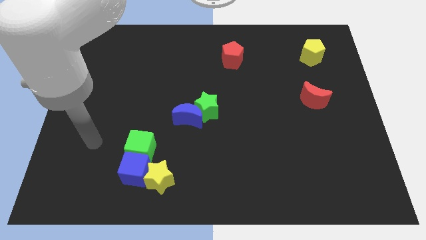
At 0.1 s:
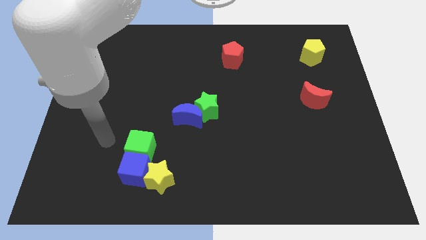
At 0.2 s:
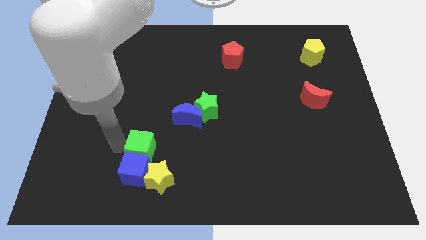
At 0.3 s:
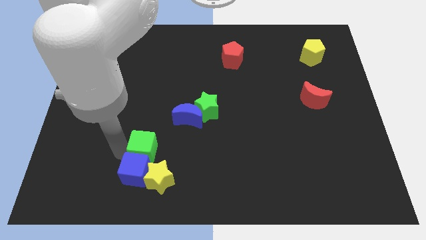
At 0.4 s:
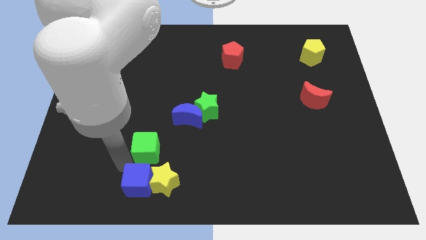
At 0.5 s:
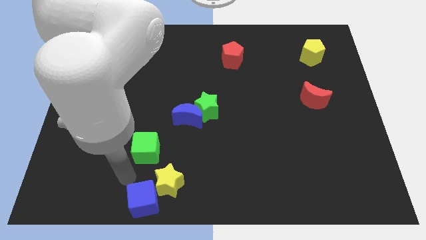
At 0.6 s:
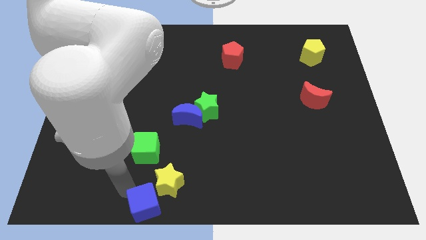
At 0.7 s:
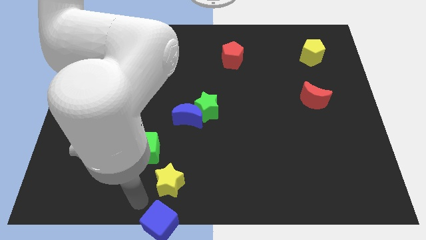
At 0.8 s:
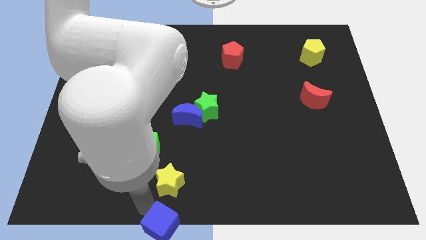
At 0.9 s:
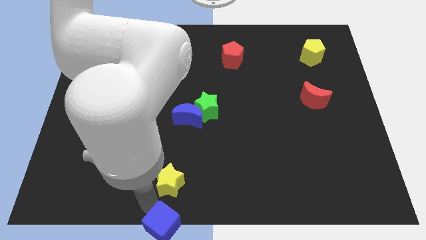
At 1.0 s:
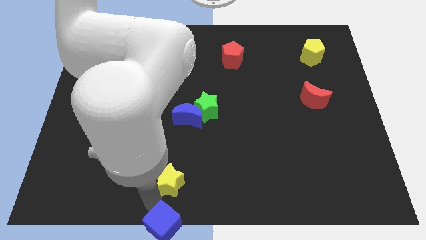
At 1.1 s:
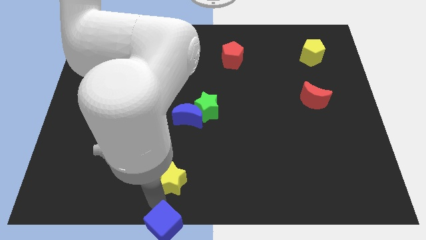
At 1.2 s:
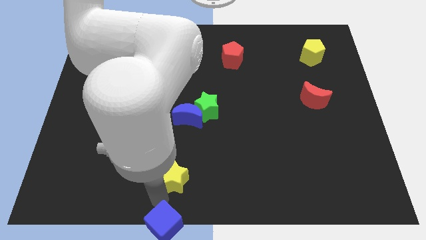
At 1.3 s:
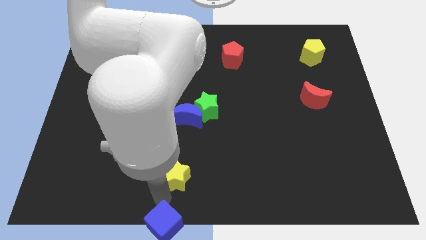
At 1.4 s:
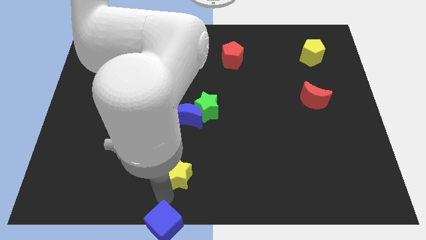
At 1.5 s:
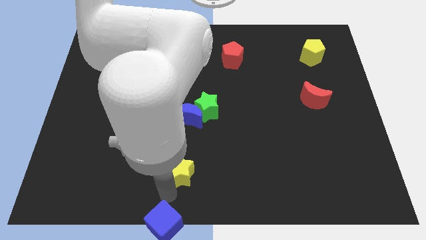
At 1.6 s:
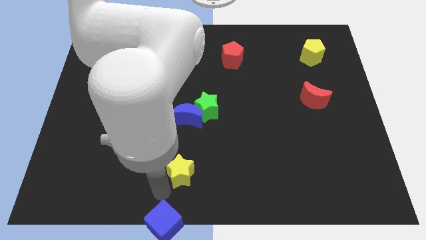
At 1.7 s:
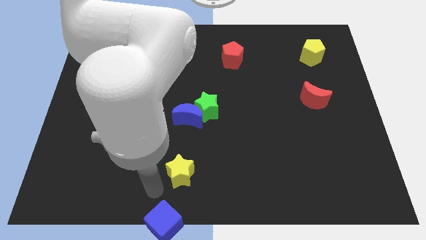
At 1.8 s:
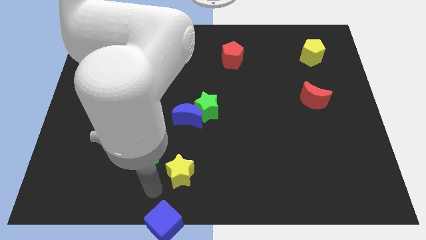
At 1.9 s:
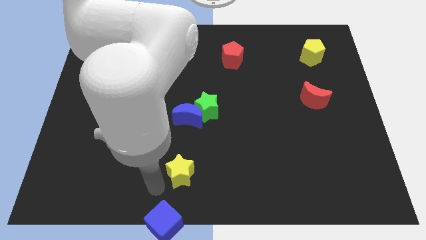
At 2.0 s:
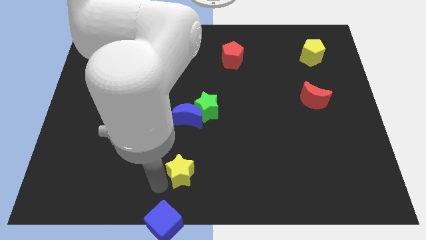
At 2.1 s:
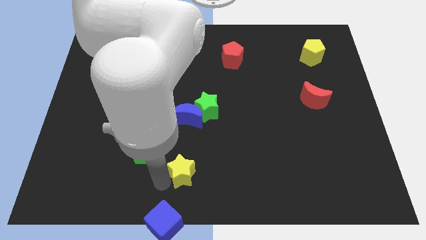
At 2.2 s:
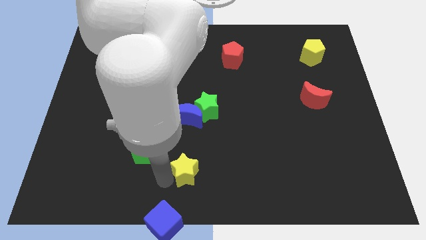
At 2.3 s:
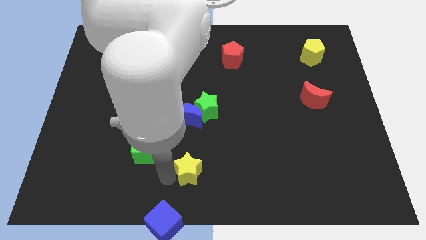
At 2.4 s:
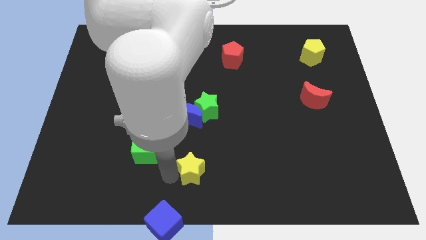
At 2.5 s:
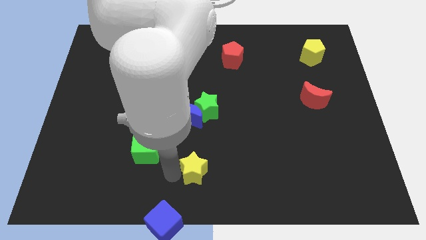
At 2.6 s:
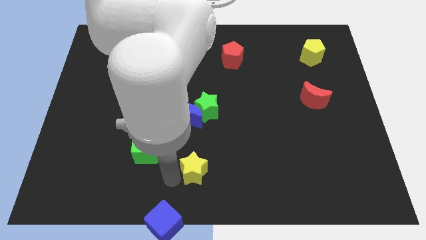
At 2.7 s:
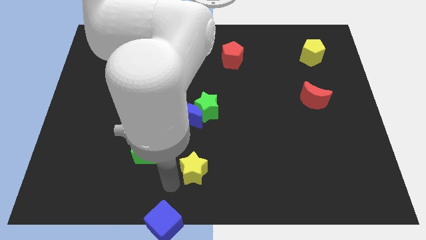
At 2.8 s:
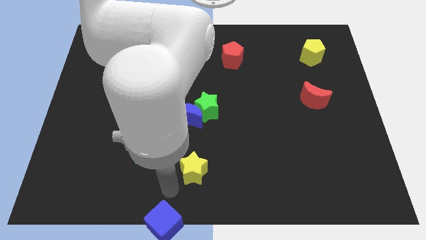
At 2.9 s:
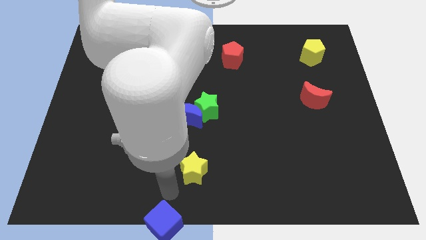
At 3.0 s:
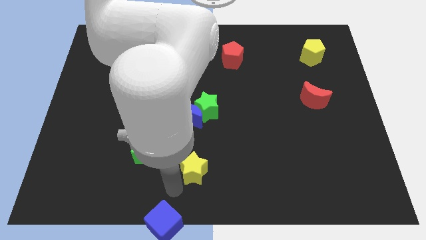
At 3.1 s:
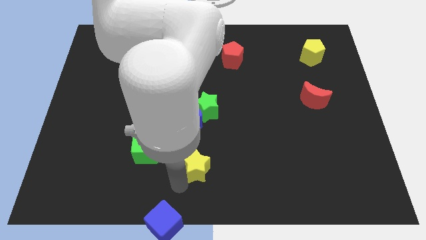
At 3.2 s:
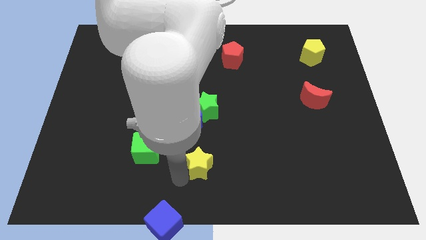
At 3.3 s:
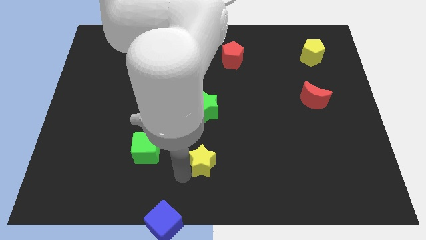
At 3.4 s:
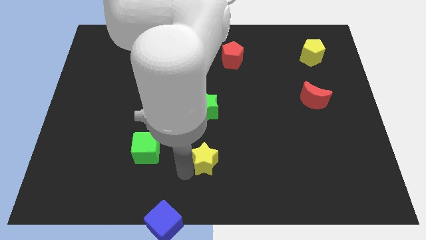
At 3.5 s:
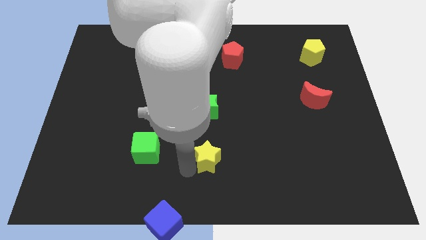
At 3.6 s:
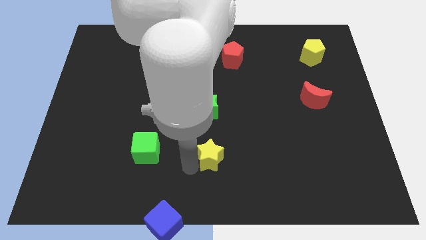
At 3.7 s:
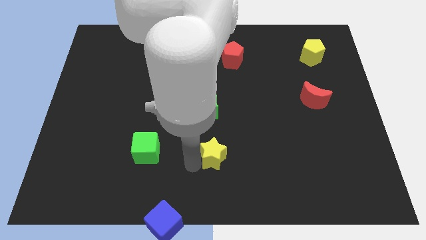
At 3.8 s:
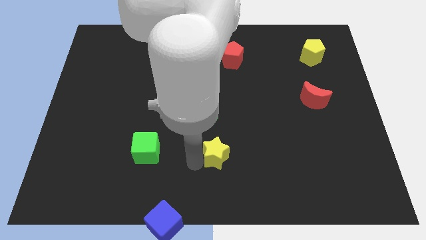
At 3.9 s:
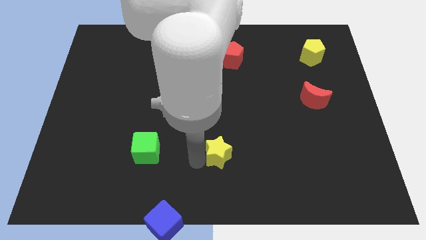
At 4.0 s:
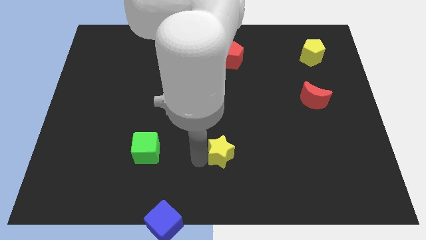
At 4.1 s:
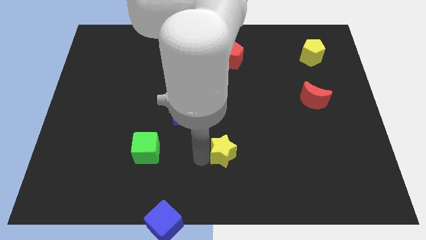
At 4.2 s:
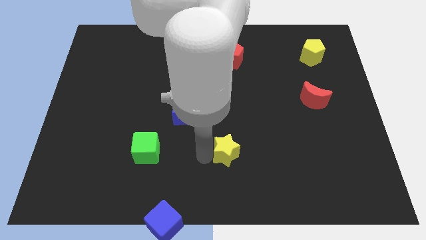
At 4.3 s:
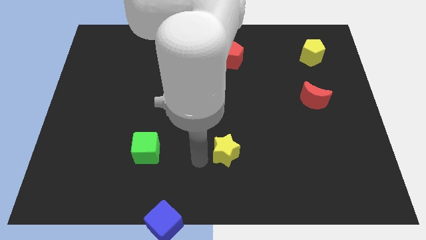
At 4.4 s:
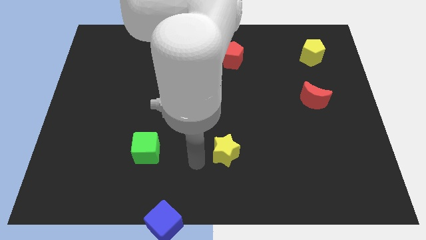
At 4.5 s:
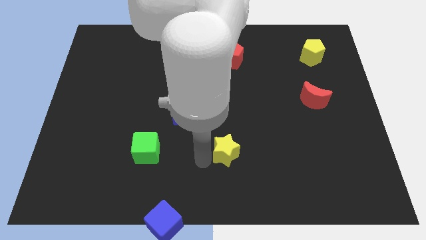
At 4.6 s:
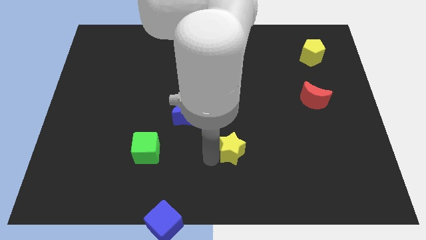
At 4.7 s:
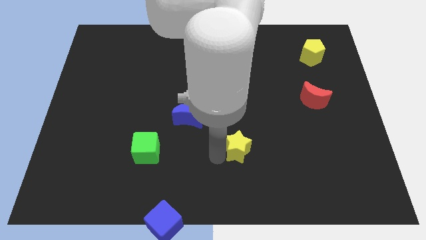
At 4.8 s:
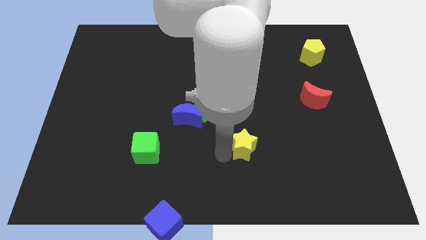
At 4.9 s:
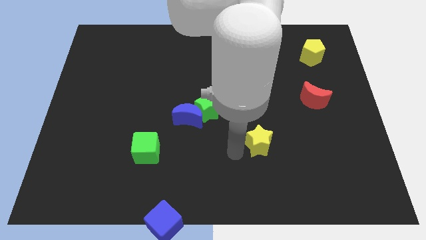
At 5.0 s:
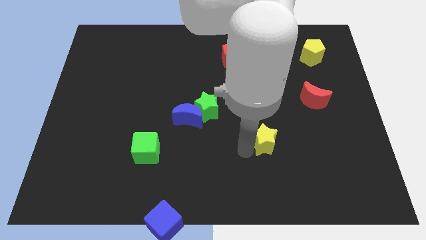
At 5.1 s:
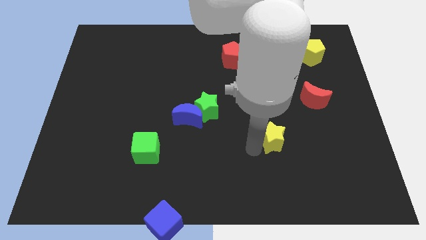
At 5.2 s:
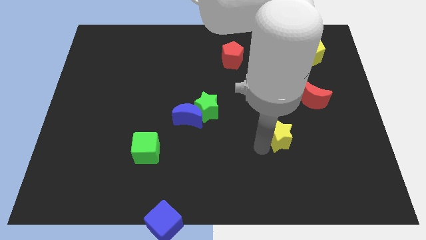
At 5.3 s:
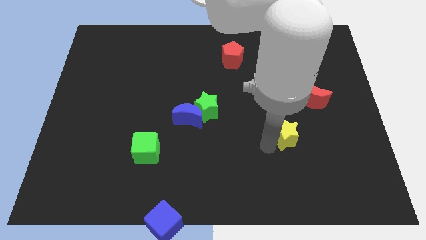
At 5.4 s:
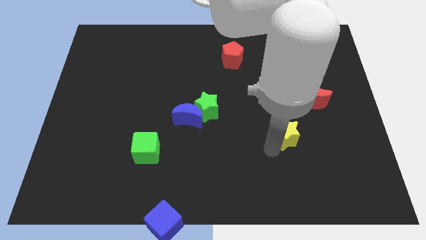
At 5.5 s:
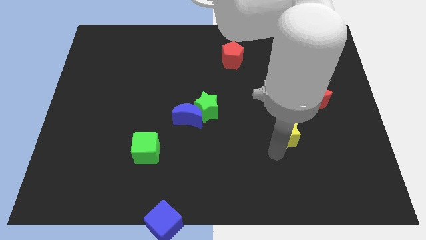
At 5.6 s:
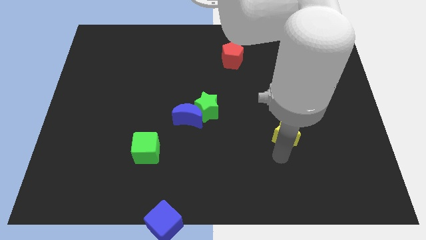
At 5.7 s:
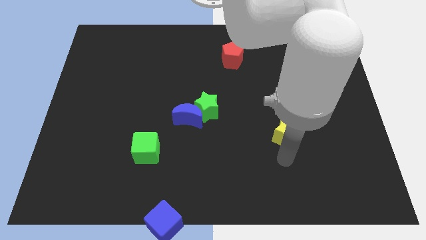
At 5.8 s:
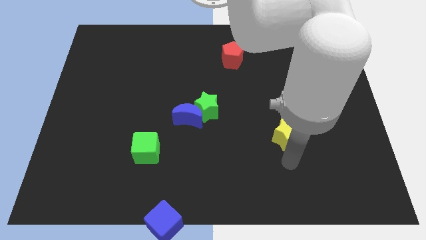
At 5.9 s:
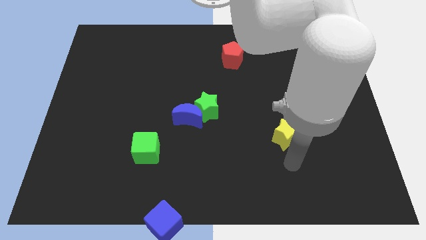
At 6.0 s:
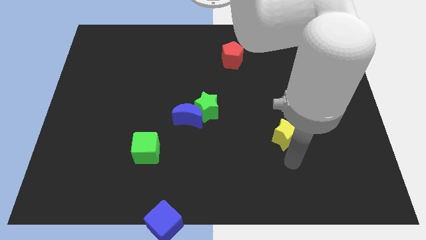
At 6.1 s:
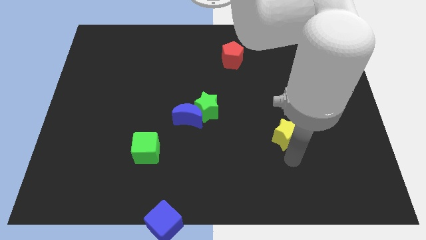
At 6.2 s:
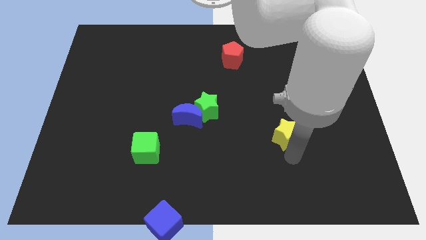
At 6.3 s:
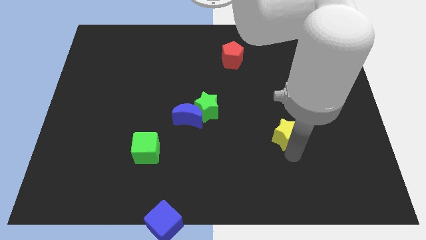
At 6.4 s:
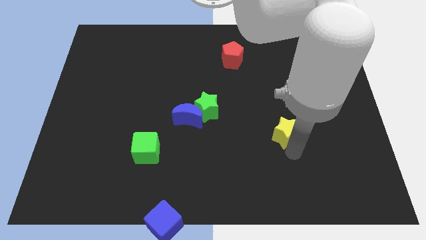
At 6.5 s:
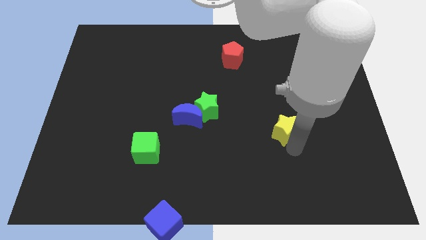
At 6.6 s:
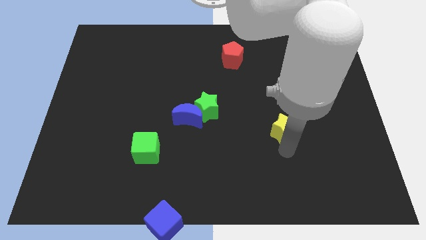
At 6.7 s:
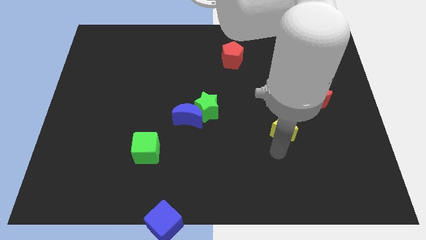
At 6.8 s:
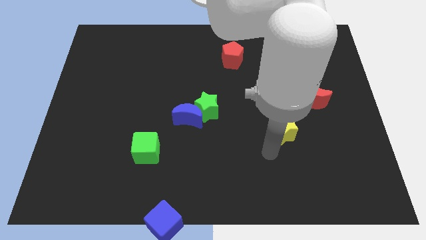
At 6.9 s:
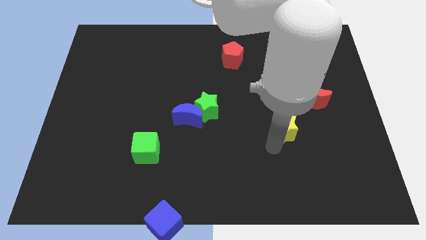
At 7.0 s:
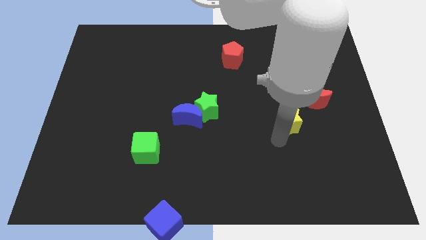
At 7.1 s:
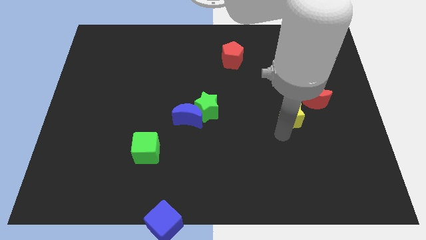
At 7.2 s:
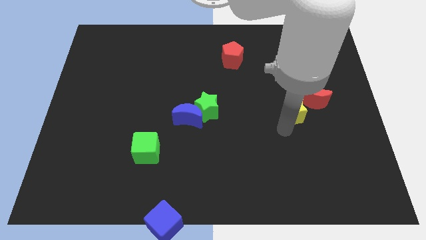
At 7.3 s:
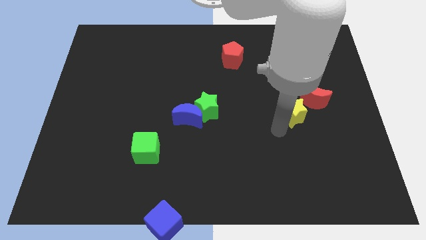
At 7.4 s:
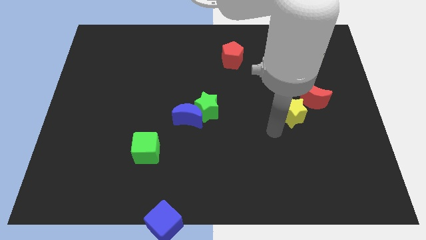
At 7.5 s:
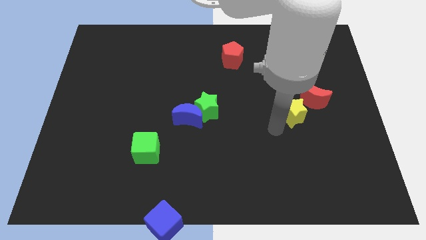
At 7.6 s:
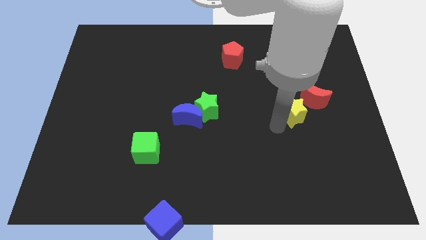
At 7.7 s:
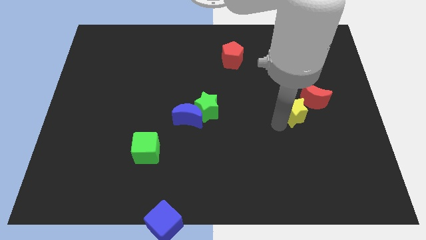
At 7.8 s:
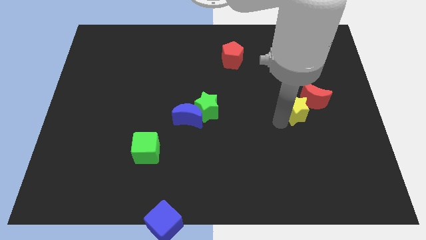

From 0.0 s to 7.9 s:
slide the yellow star towards the red moon
